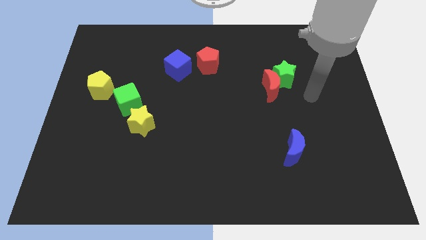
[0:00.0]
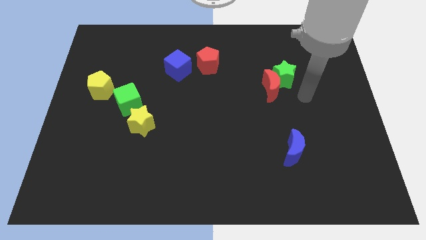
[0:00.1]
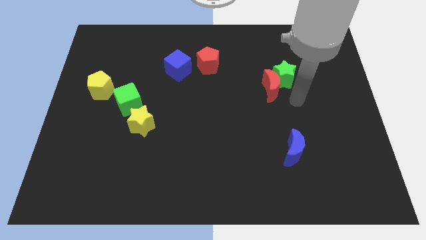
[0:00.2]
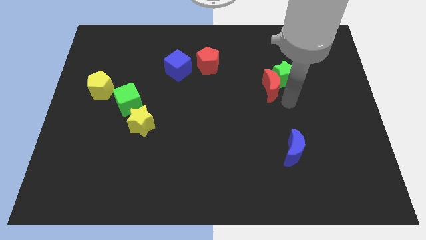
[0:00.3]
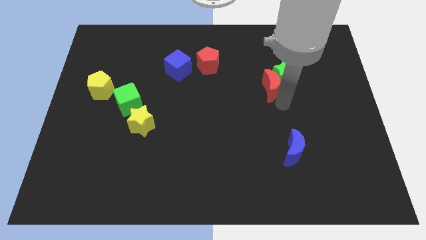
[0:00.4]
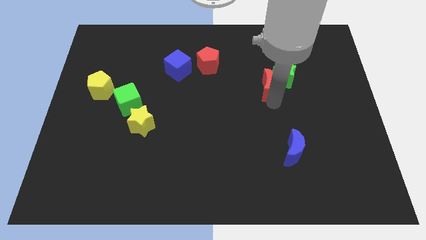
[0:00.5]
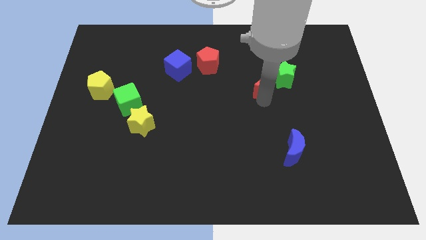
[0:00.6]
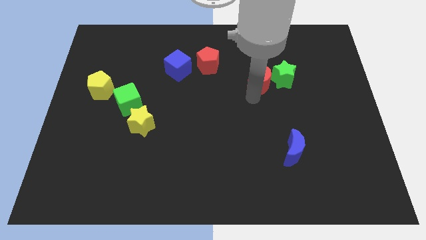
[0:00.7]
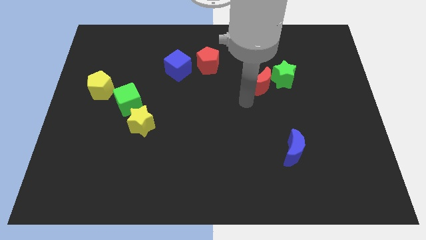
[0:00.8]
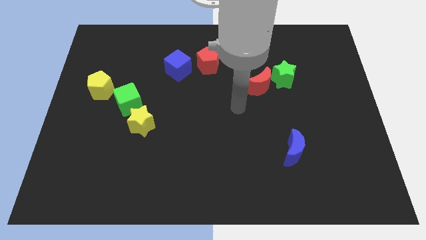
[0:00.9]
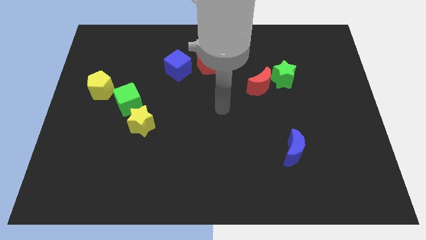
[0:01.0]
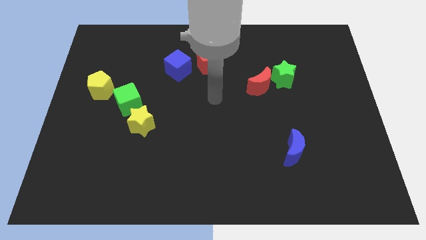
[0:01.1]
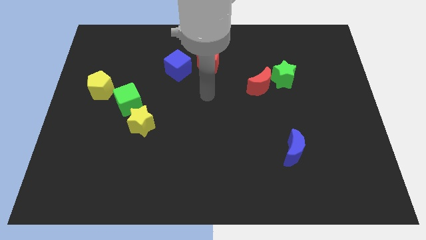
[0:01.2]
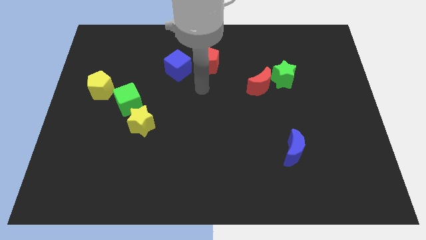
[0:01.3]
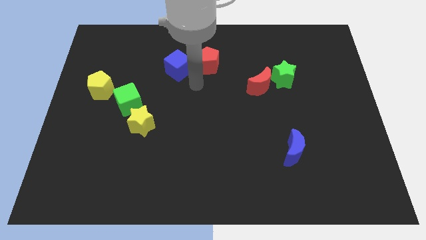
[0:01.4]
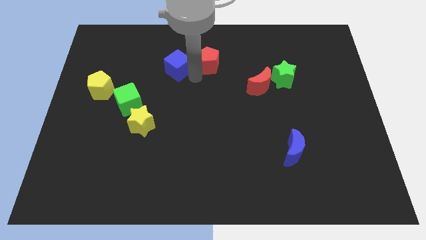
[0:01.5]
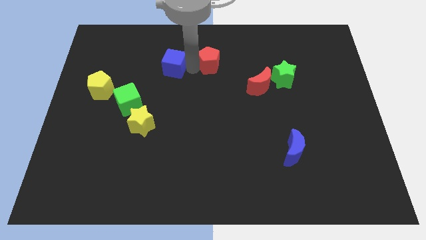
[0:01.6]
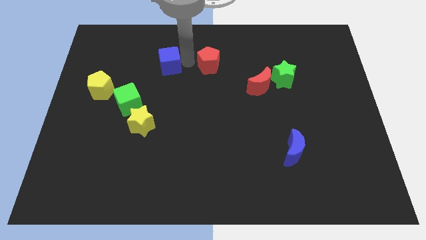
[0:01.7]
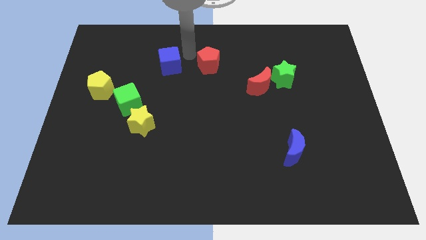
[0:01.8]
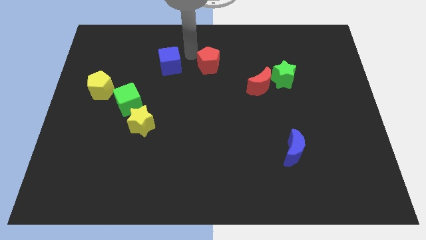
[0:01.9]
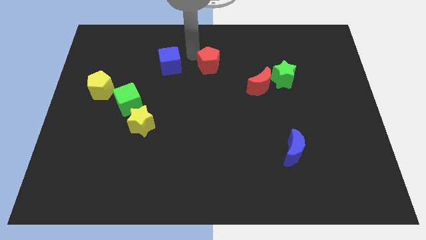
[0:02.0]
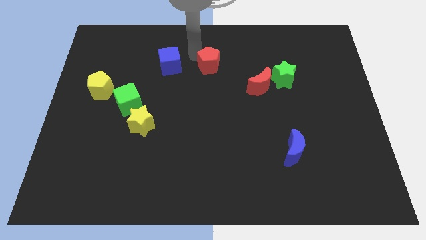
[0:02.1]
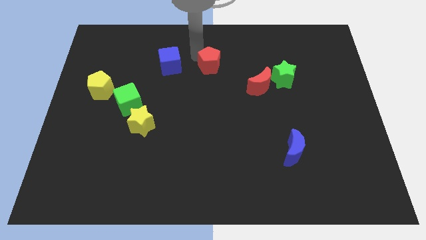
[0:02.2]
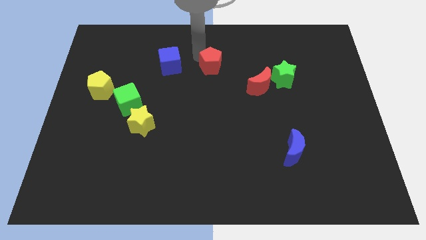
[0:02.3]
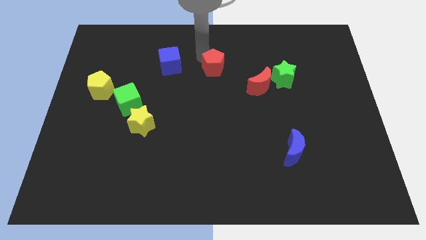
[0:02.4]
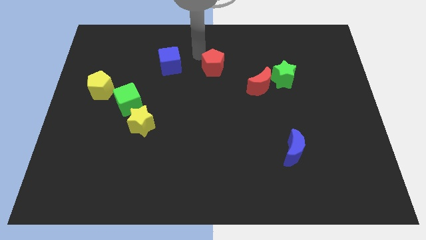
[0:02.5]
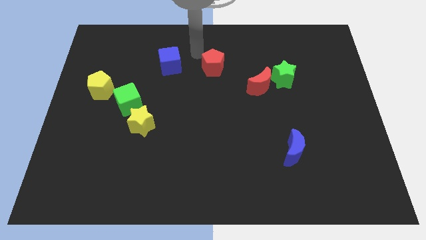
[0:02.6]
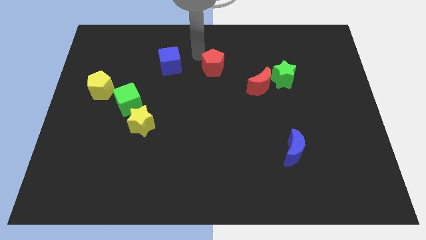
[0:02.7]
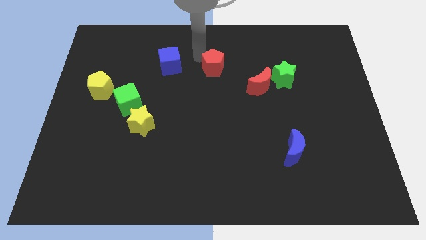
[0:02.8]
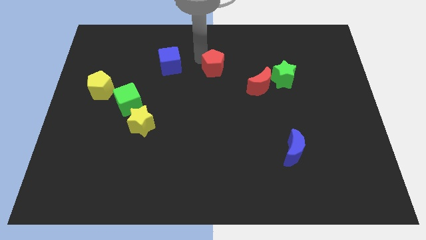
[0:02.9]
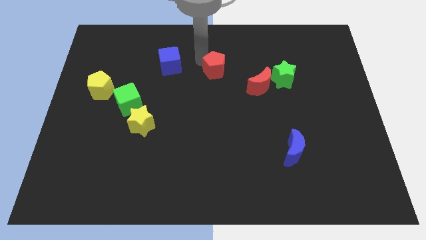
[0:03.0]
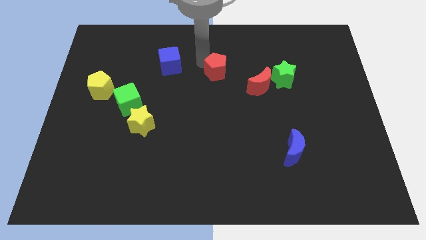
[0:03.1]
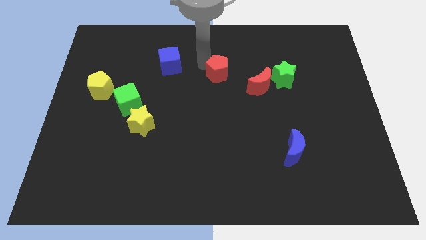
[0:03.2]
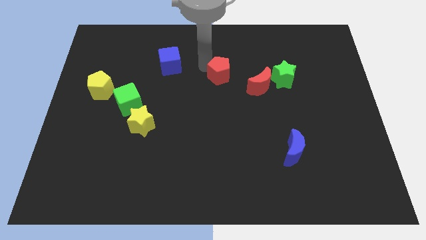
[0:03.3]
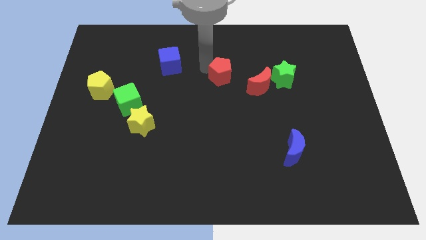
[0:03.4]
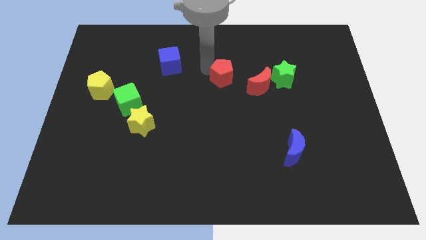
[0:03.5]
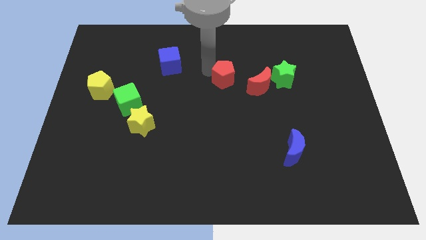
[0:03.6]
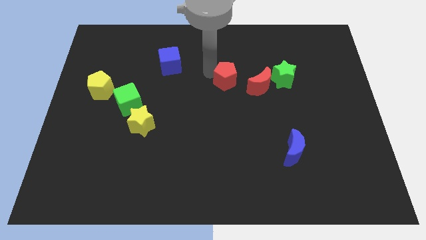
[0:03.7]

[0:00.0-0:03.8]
move the red pentagon downwards and right diagonally a little

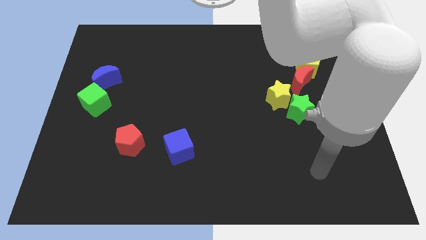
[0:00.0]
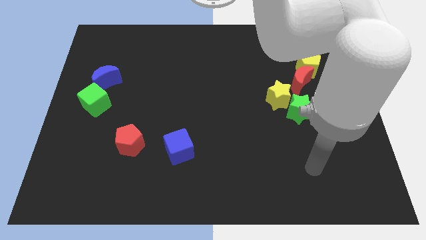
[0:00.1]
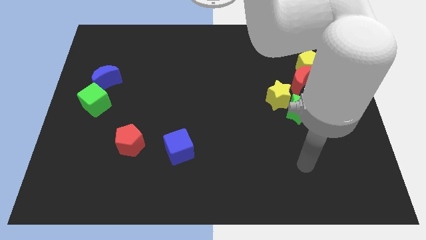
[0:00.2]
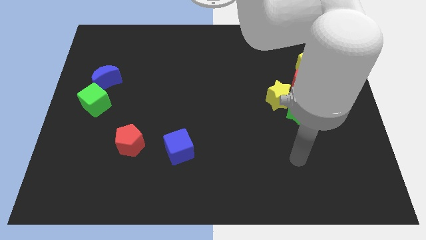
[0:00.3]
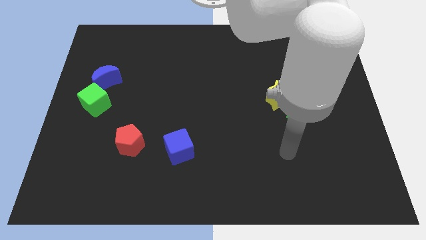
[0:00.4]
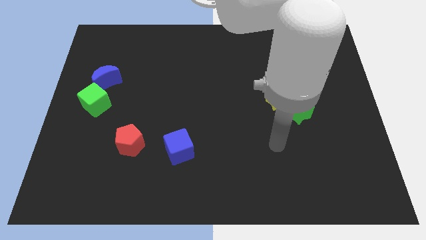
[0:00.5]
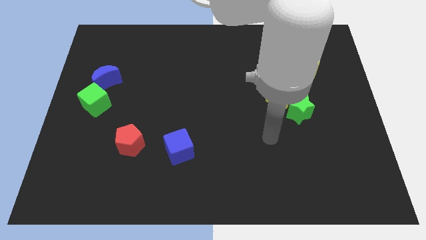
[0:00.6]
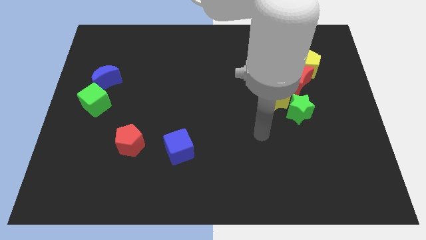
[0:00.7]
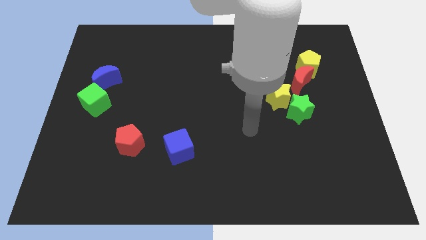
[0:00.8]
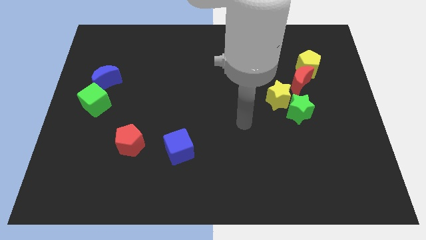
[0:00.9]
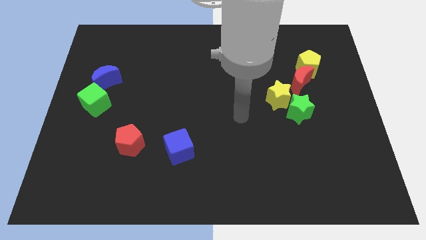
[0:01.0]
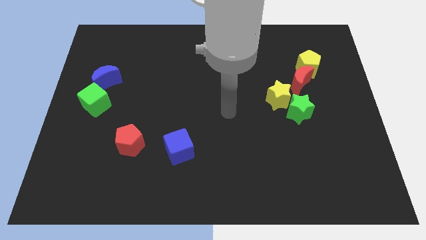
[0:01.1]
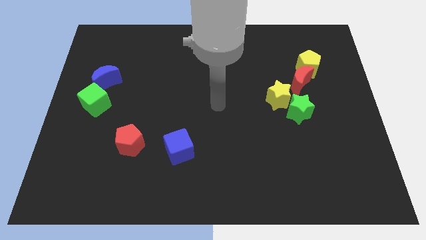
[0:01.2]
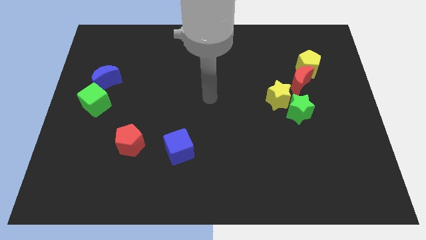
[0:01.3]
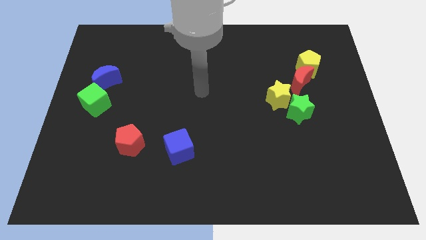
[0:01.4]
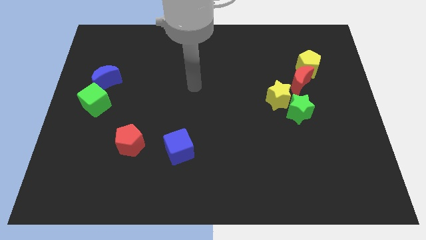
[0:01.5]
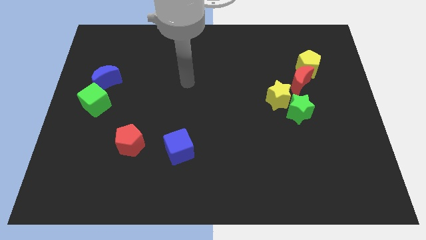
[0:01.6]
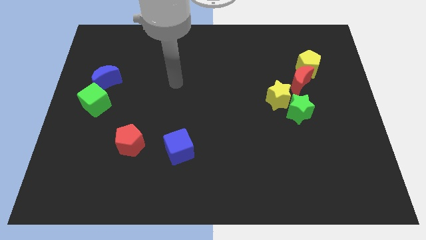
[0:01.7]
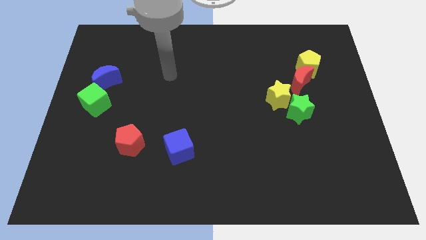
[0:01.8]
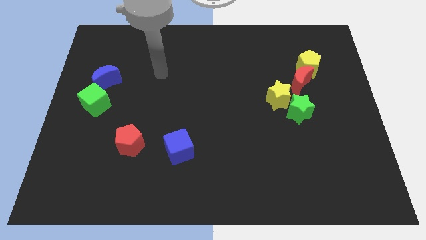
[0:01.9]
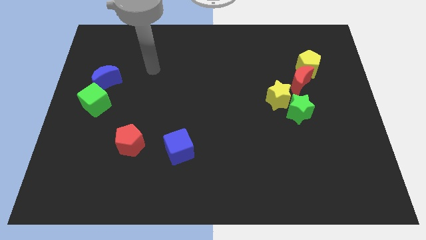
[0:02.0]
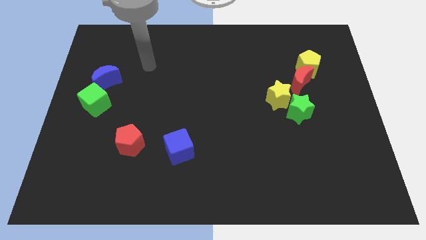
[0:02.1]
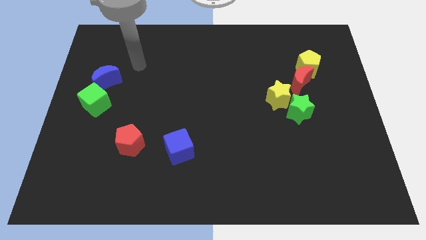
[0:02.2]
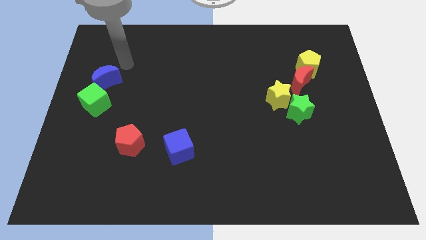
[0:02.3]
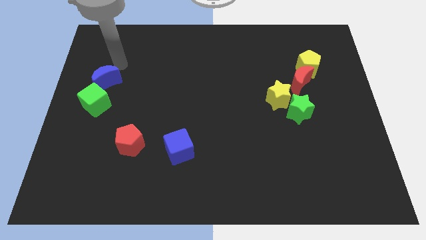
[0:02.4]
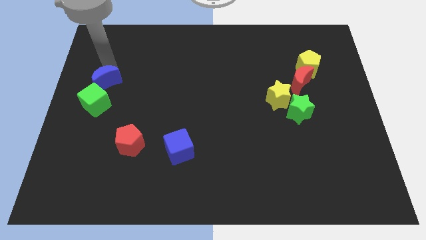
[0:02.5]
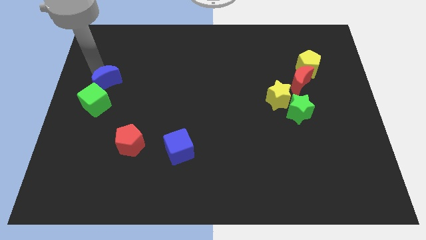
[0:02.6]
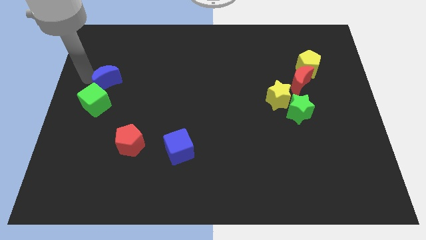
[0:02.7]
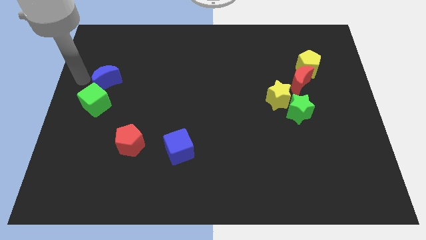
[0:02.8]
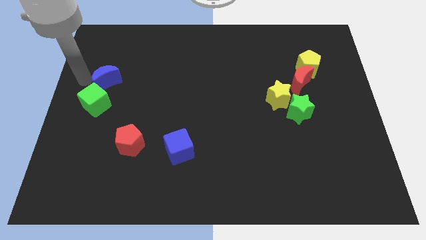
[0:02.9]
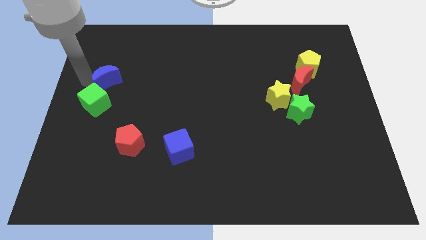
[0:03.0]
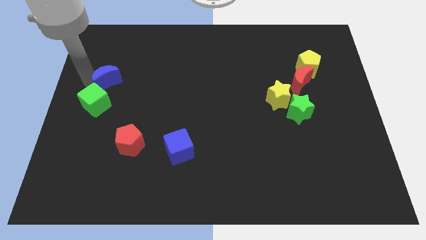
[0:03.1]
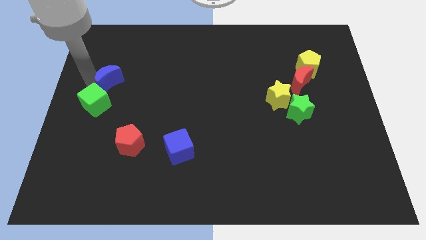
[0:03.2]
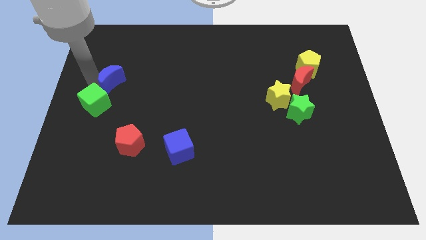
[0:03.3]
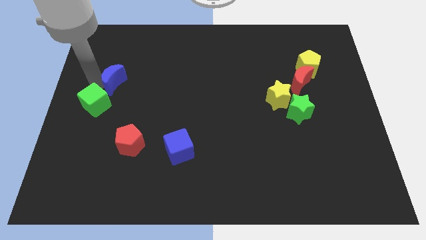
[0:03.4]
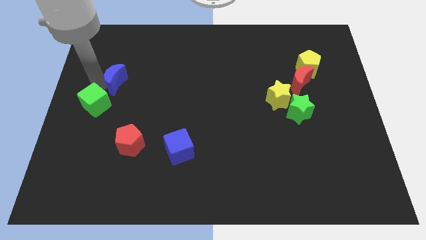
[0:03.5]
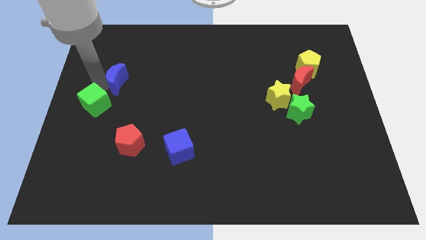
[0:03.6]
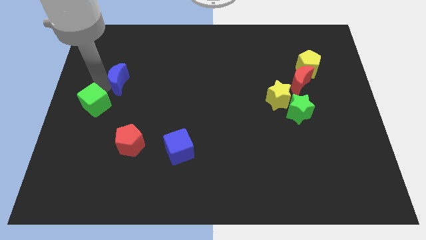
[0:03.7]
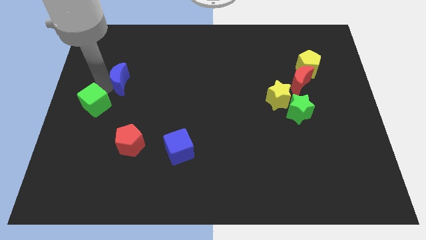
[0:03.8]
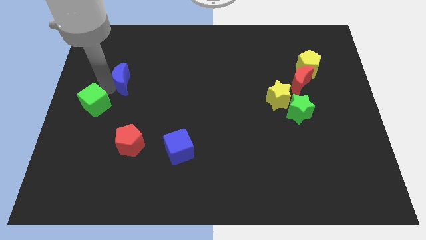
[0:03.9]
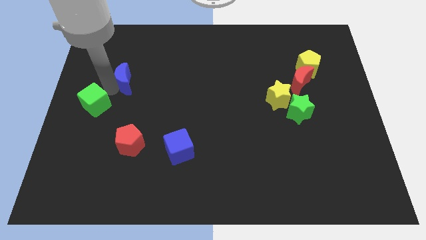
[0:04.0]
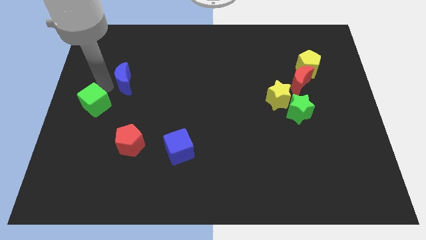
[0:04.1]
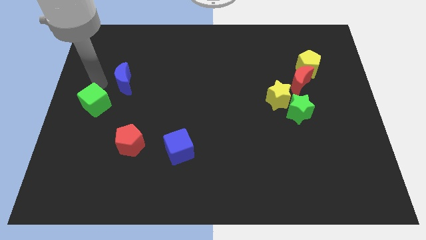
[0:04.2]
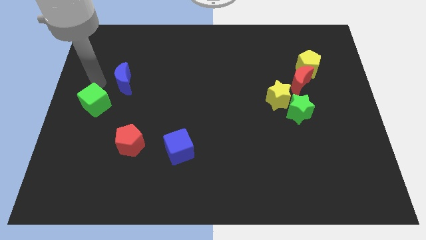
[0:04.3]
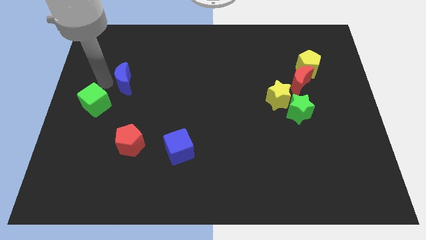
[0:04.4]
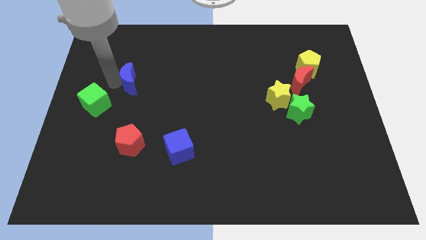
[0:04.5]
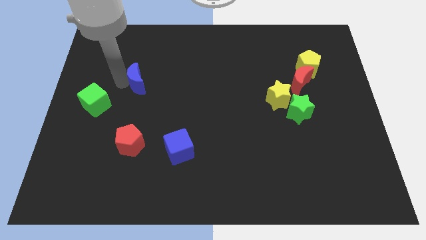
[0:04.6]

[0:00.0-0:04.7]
slide the blue moon somewhat right
